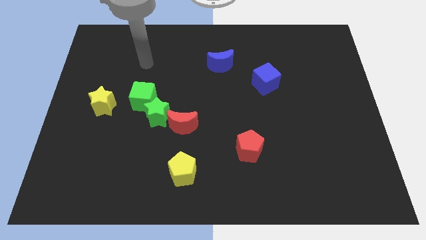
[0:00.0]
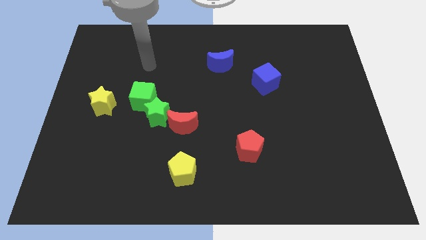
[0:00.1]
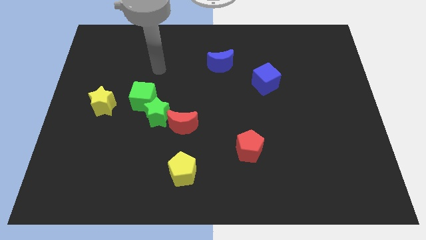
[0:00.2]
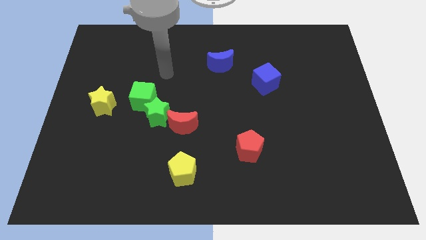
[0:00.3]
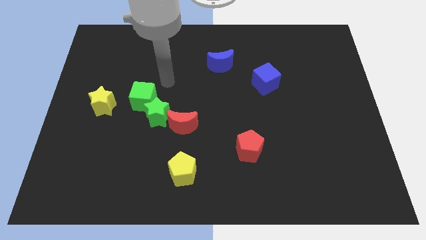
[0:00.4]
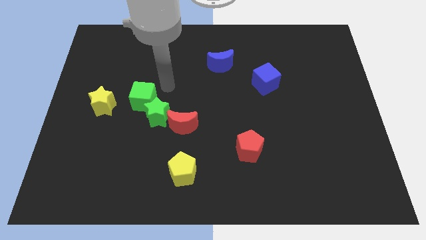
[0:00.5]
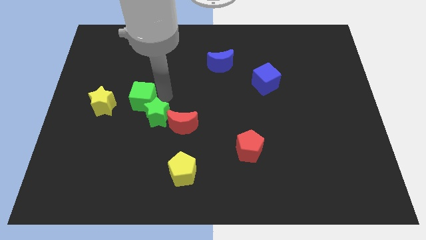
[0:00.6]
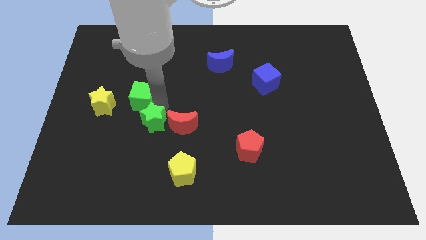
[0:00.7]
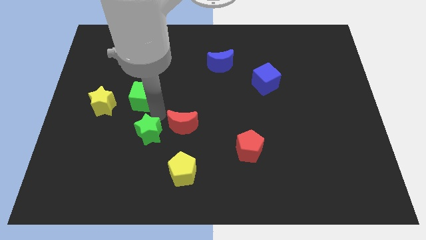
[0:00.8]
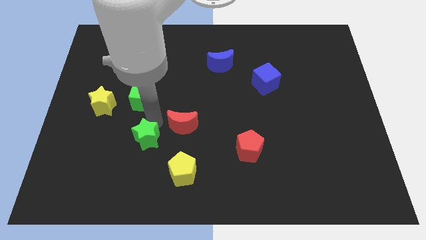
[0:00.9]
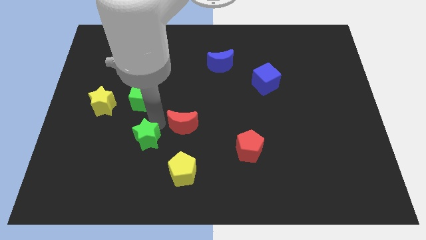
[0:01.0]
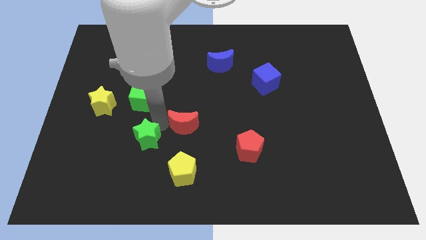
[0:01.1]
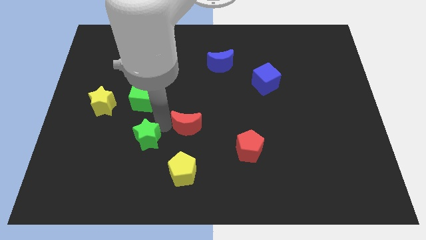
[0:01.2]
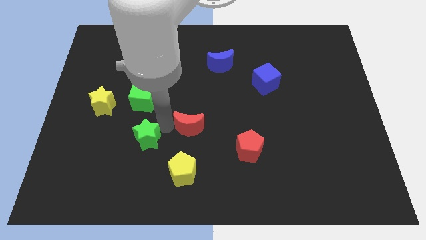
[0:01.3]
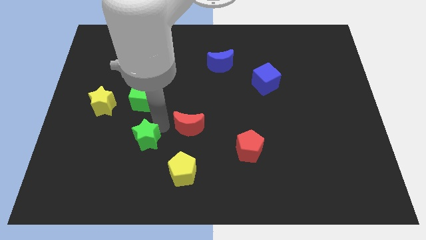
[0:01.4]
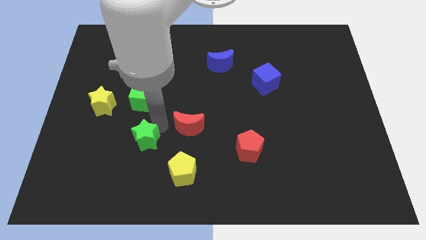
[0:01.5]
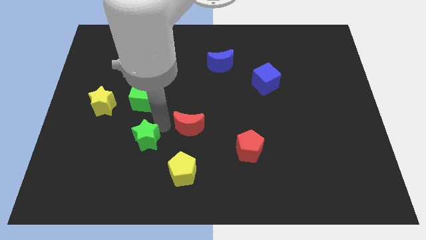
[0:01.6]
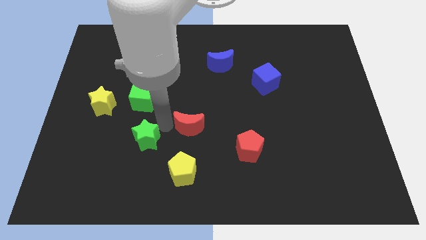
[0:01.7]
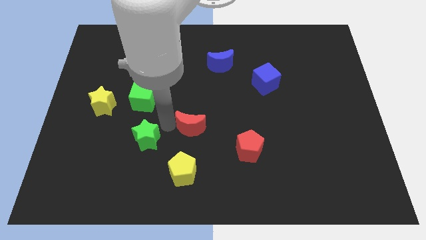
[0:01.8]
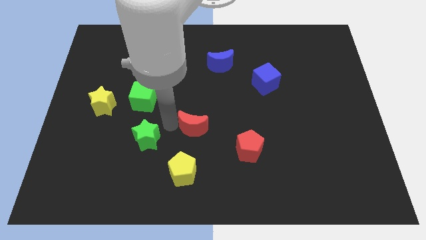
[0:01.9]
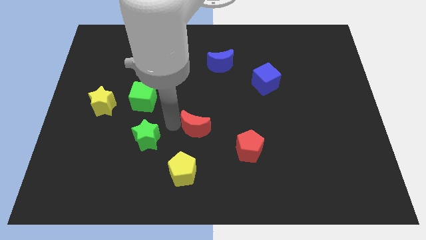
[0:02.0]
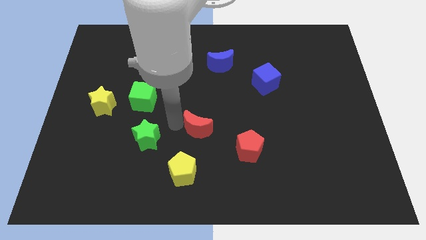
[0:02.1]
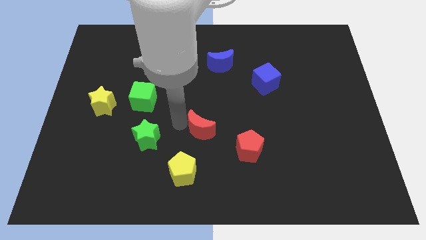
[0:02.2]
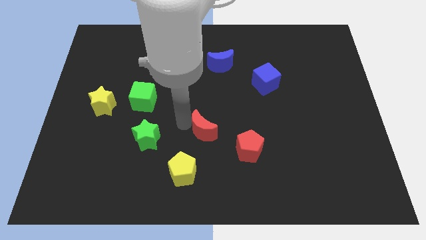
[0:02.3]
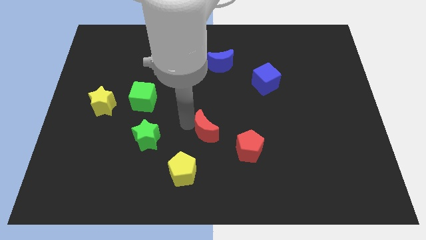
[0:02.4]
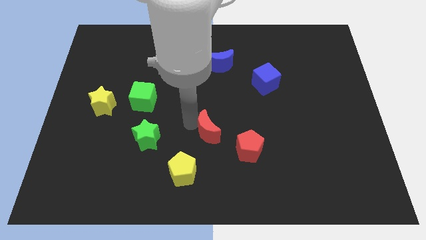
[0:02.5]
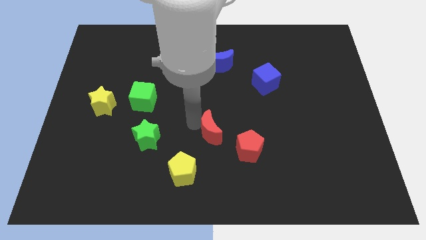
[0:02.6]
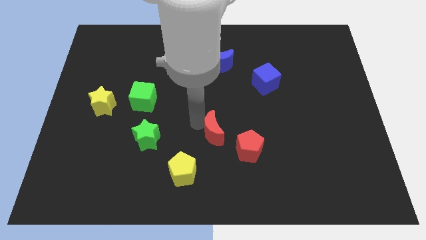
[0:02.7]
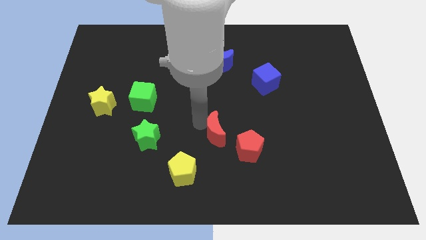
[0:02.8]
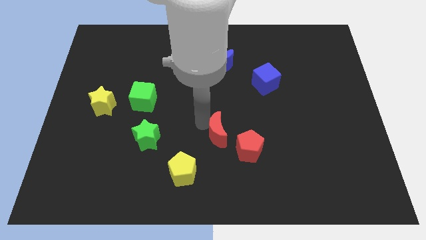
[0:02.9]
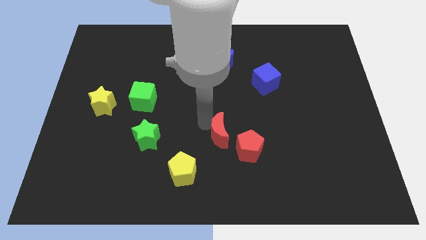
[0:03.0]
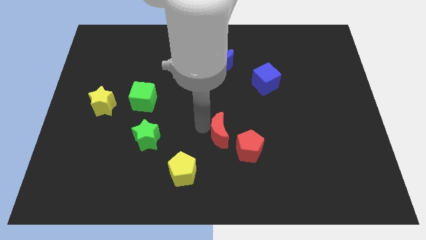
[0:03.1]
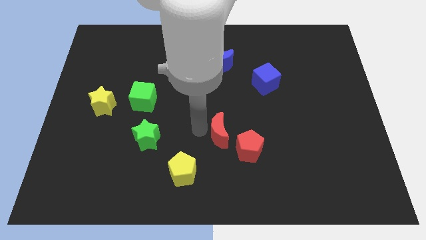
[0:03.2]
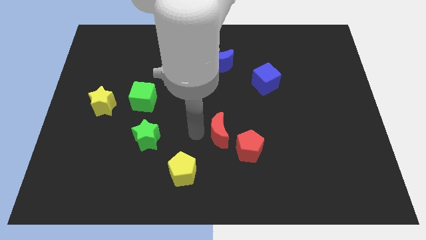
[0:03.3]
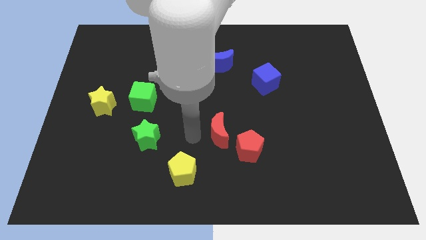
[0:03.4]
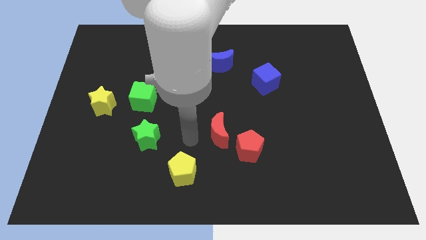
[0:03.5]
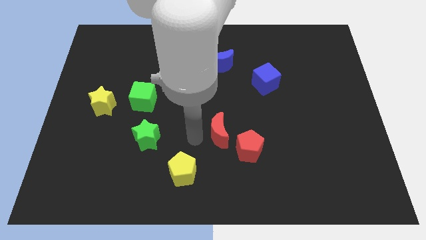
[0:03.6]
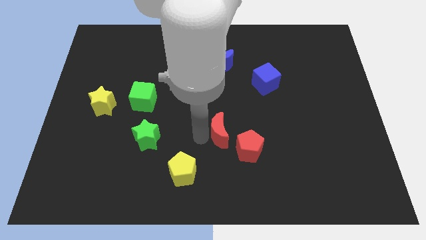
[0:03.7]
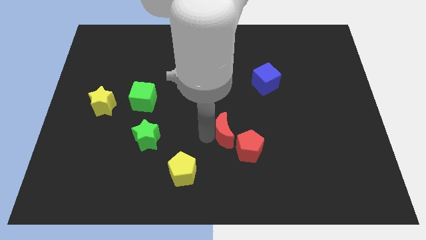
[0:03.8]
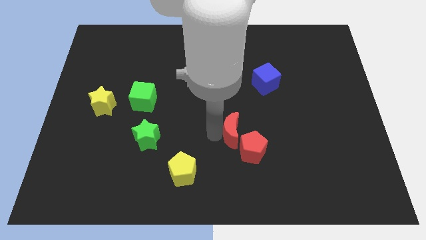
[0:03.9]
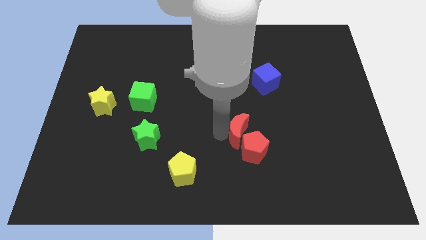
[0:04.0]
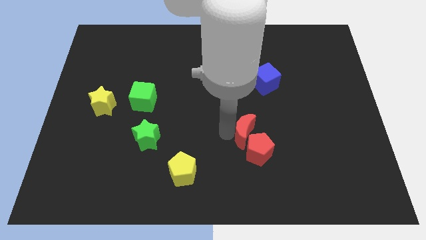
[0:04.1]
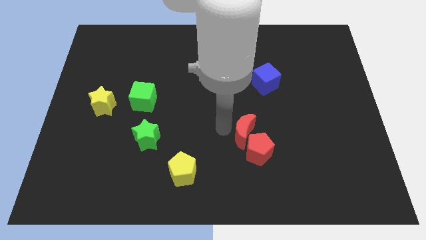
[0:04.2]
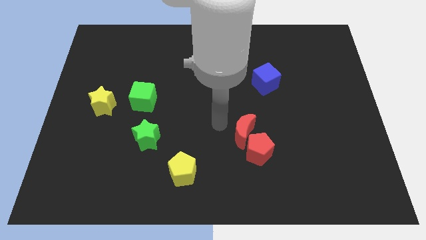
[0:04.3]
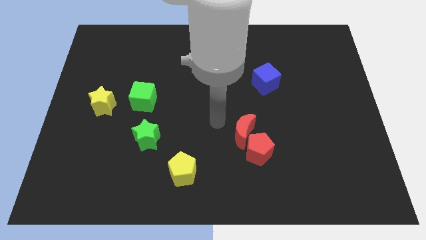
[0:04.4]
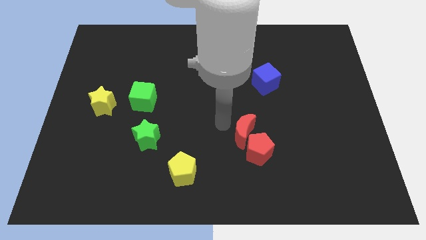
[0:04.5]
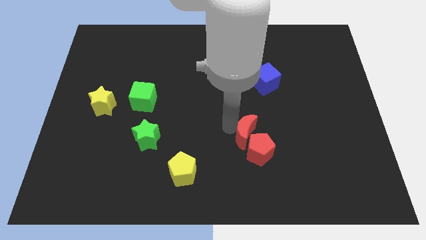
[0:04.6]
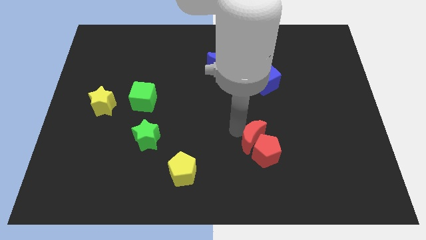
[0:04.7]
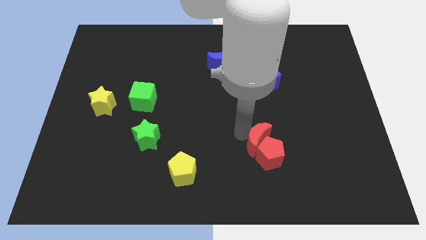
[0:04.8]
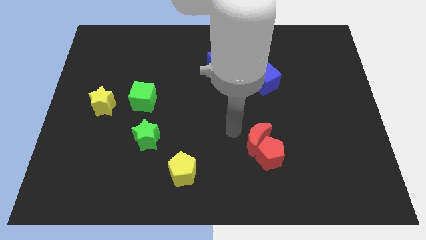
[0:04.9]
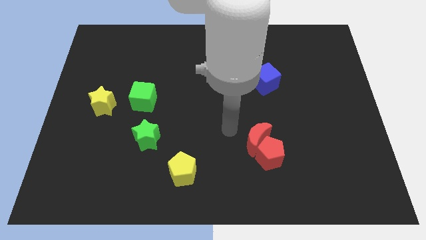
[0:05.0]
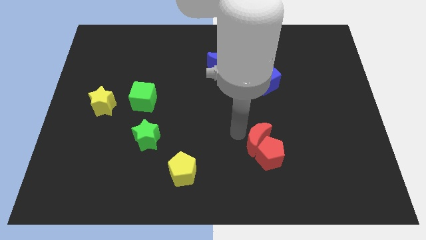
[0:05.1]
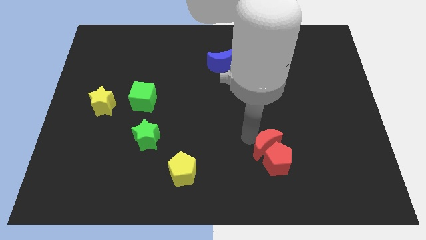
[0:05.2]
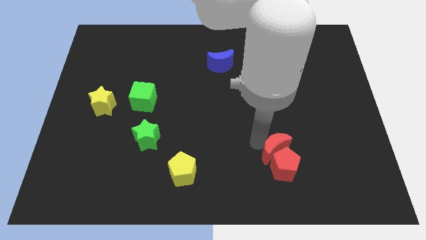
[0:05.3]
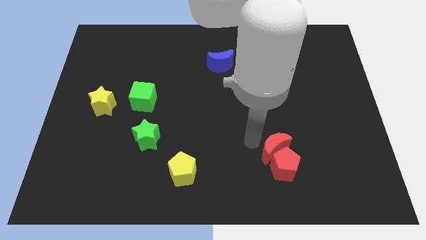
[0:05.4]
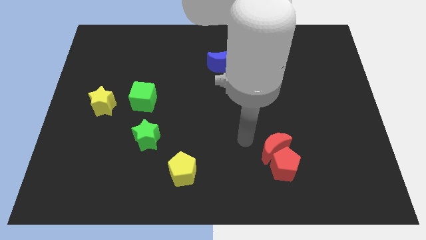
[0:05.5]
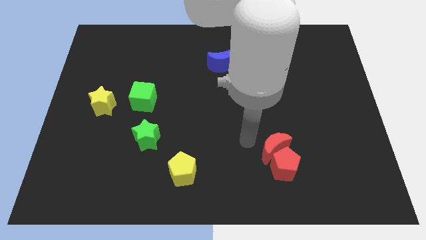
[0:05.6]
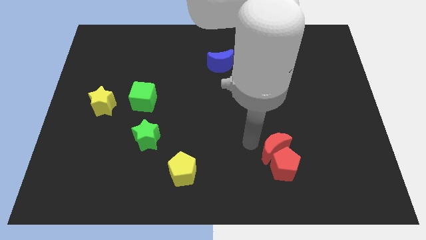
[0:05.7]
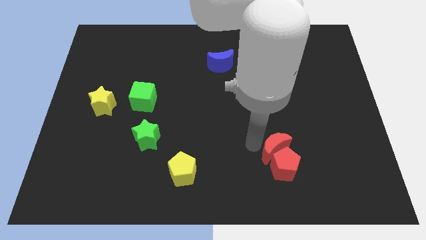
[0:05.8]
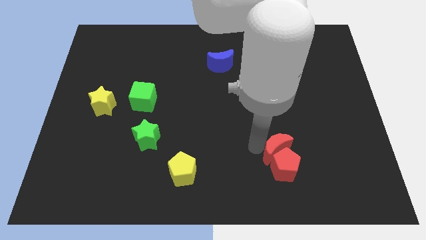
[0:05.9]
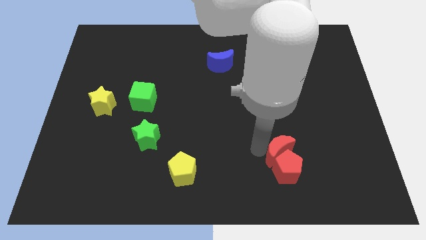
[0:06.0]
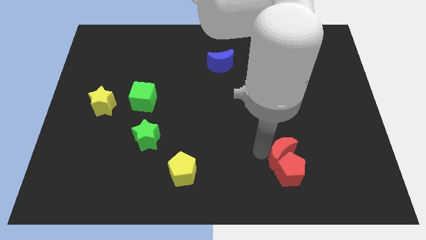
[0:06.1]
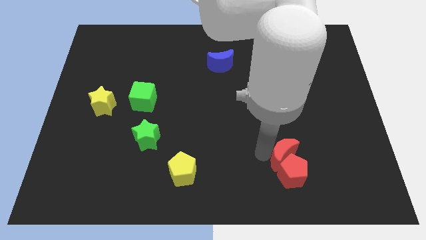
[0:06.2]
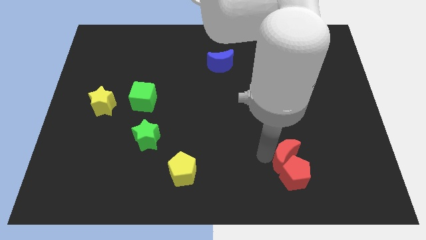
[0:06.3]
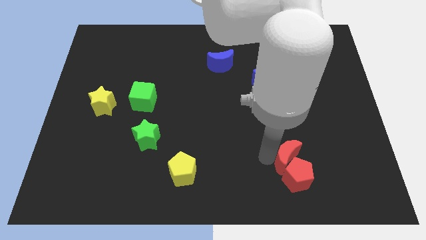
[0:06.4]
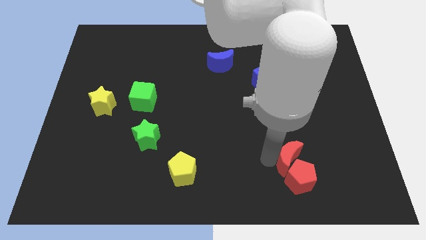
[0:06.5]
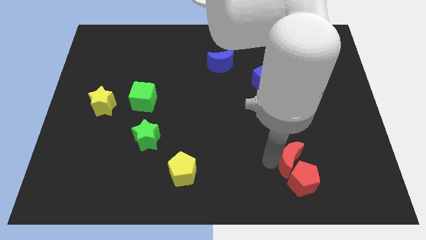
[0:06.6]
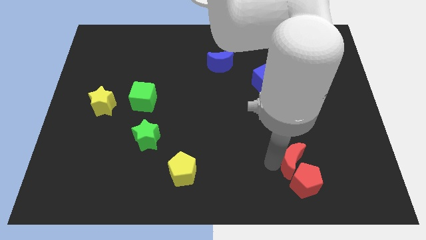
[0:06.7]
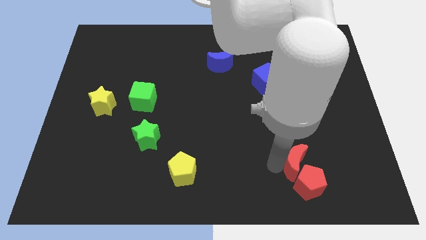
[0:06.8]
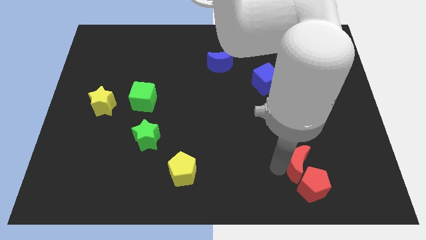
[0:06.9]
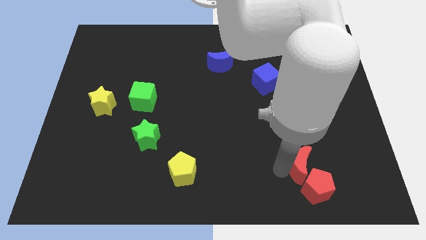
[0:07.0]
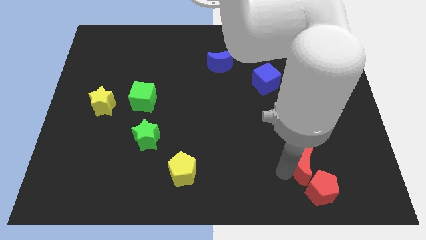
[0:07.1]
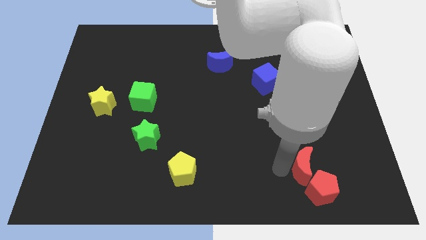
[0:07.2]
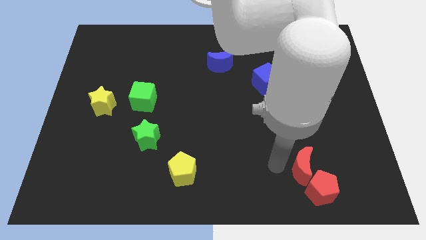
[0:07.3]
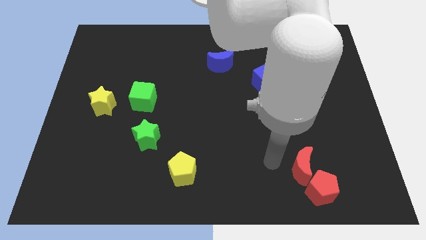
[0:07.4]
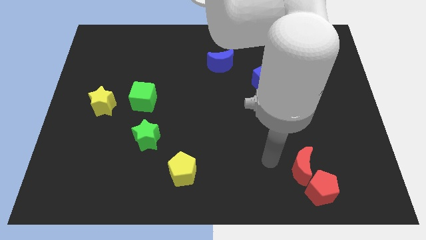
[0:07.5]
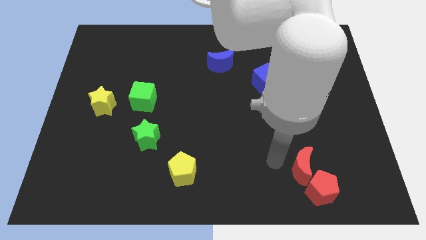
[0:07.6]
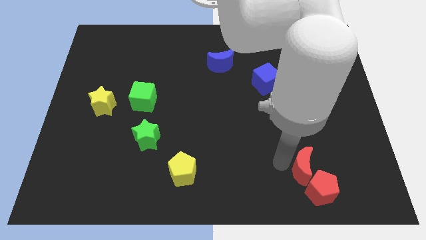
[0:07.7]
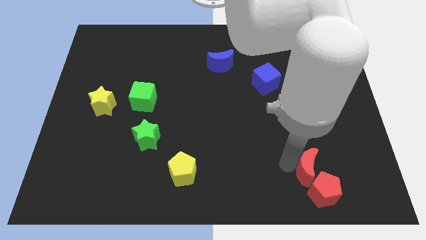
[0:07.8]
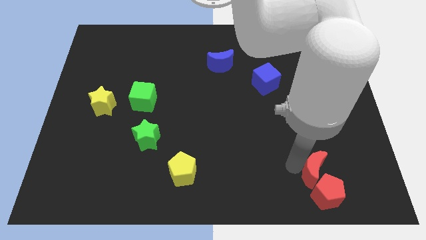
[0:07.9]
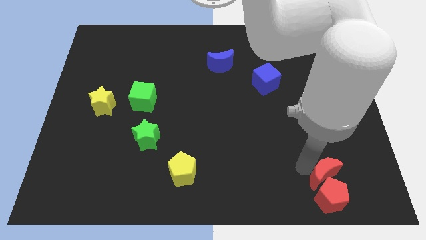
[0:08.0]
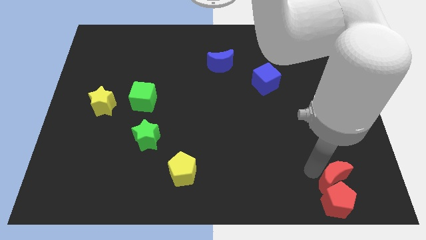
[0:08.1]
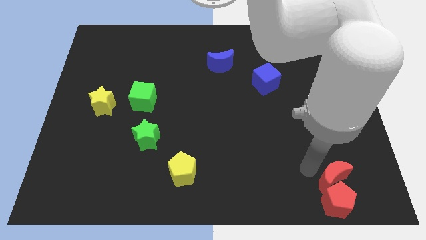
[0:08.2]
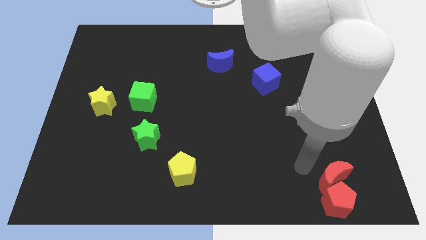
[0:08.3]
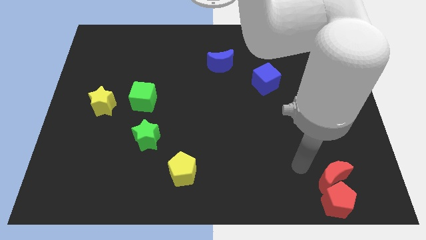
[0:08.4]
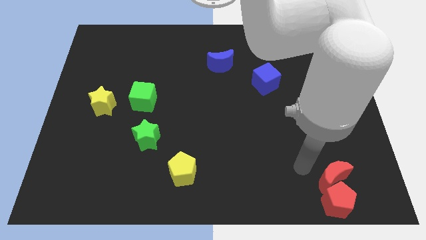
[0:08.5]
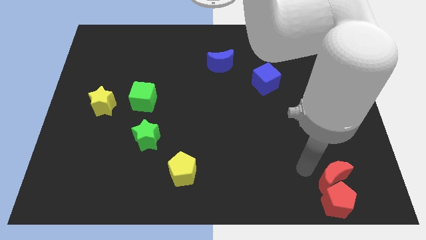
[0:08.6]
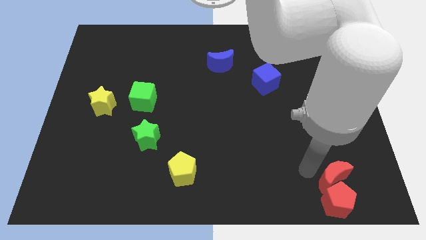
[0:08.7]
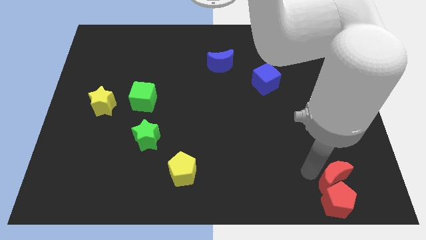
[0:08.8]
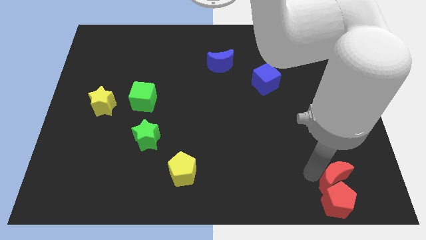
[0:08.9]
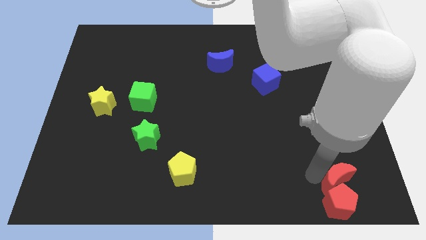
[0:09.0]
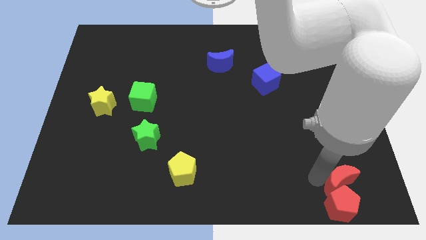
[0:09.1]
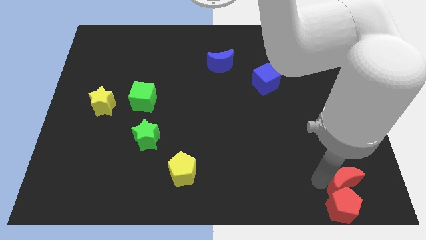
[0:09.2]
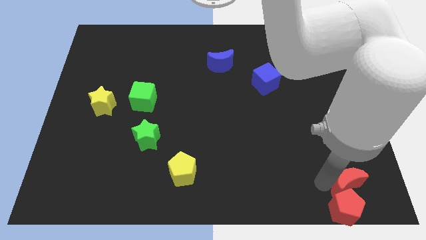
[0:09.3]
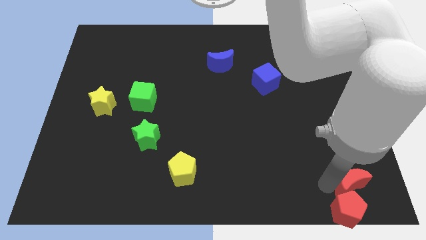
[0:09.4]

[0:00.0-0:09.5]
slide the red moon to the bottom right
